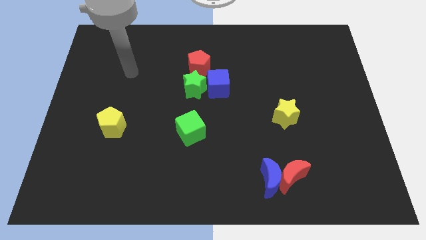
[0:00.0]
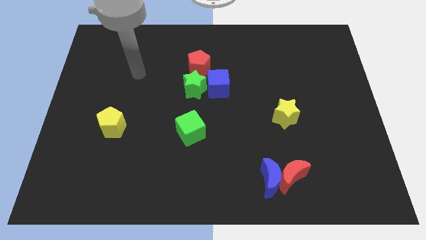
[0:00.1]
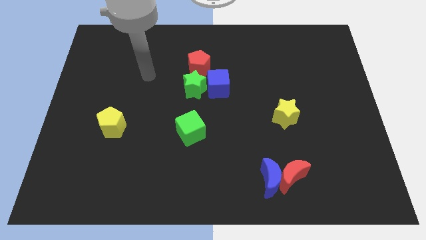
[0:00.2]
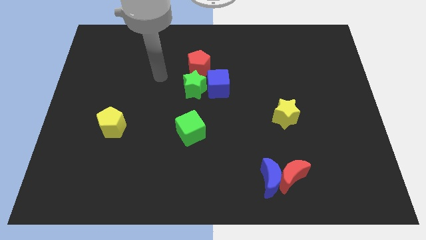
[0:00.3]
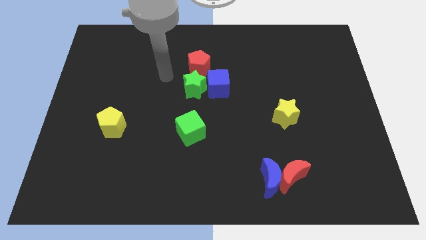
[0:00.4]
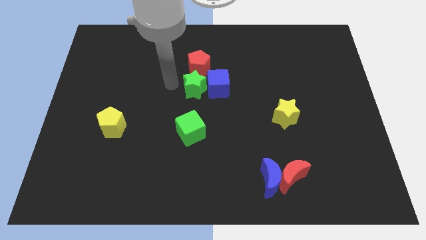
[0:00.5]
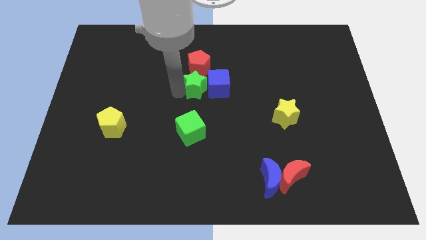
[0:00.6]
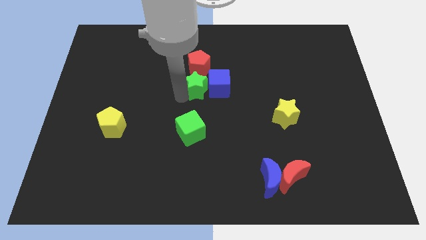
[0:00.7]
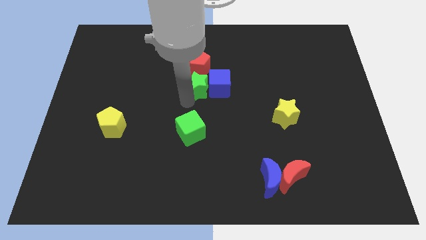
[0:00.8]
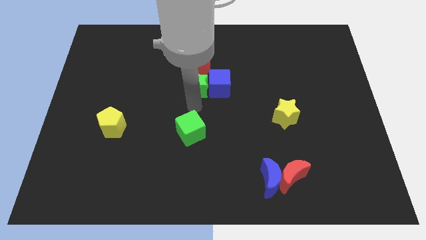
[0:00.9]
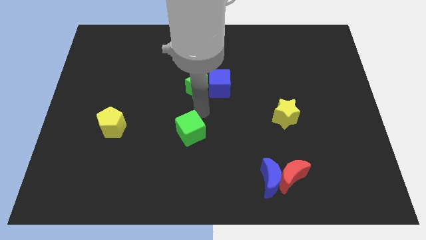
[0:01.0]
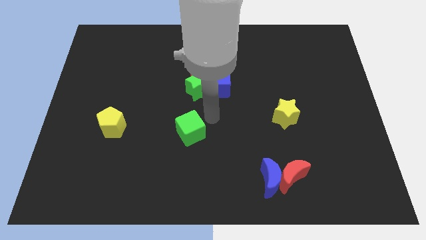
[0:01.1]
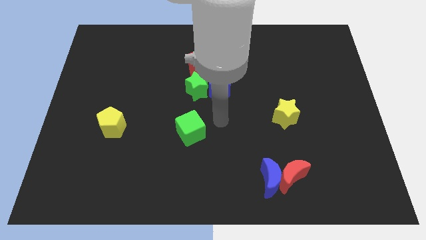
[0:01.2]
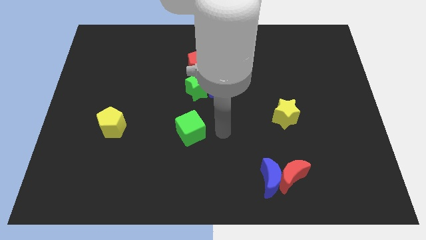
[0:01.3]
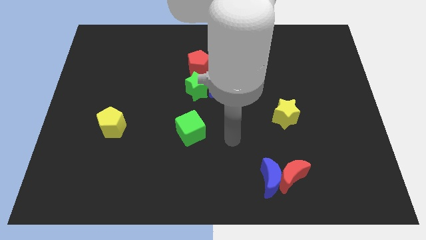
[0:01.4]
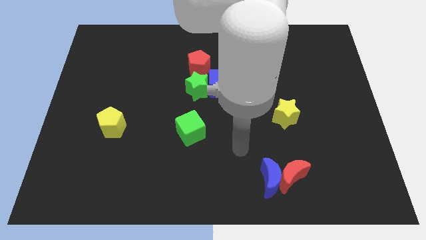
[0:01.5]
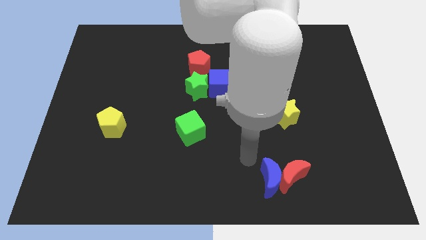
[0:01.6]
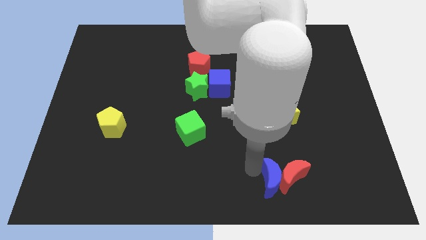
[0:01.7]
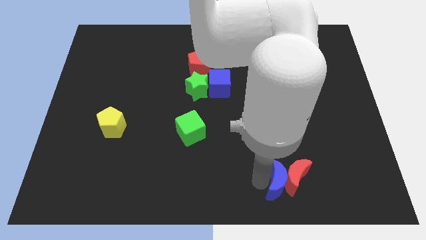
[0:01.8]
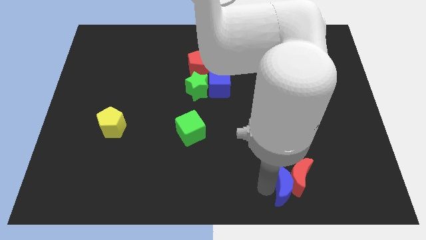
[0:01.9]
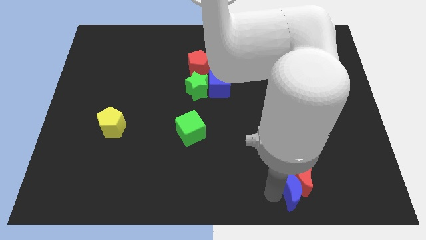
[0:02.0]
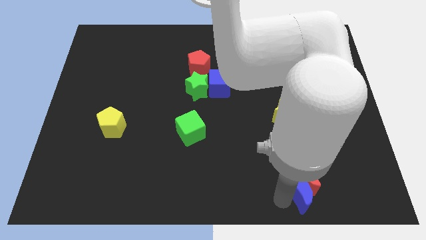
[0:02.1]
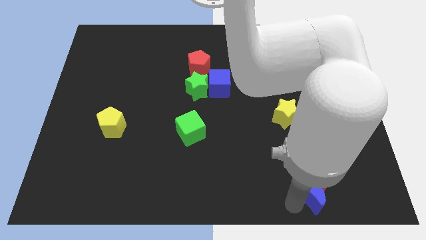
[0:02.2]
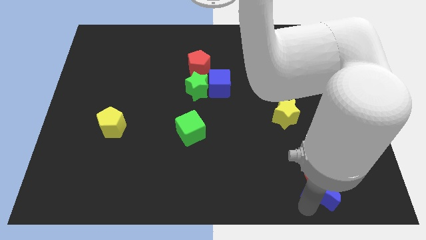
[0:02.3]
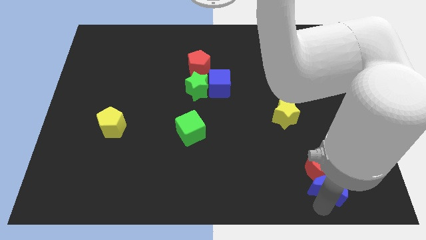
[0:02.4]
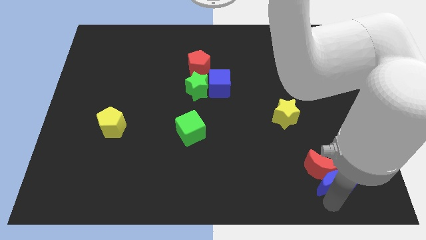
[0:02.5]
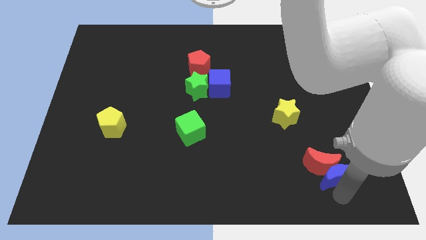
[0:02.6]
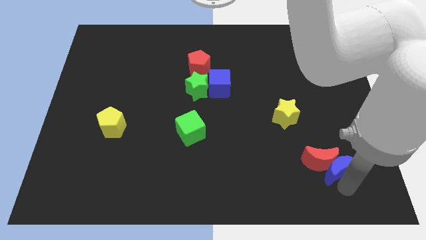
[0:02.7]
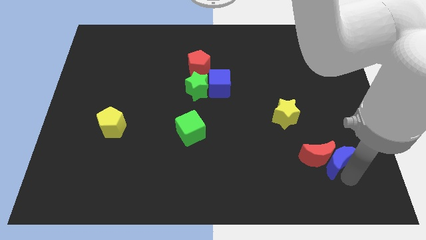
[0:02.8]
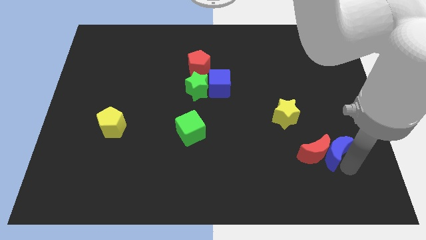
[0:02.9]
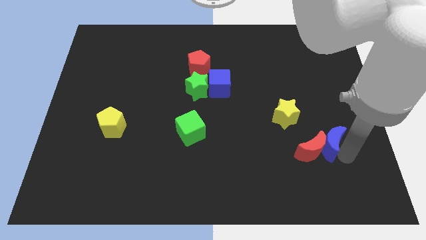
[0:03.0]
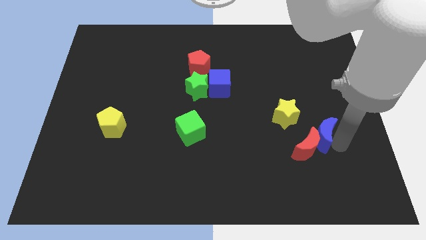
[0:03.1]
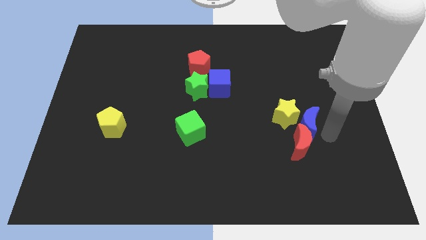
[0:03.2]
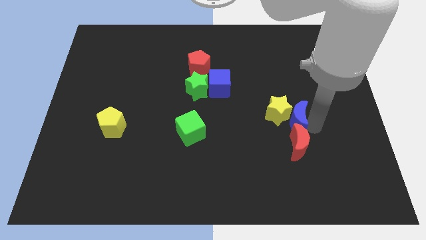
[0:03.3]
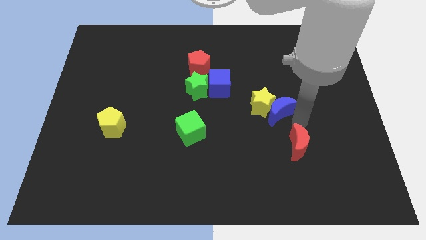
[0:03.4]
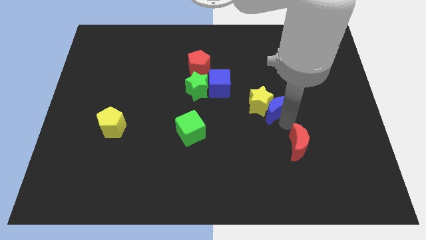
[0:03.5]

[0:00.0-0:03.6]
separate the red moon from the blue moon

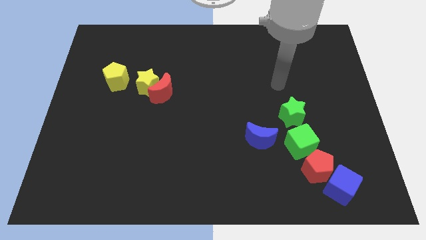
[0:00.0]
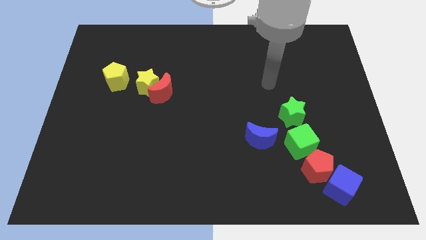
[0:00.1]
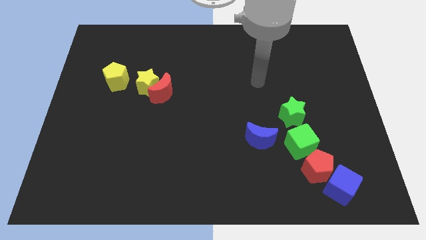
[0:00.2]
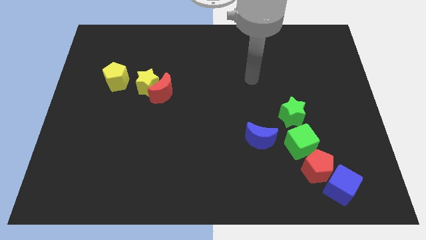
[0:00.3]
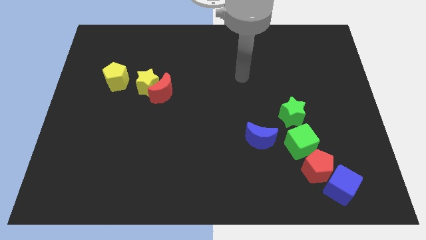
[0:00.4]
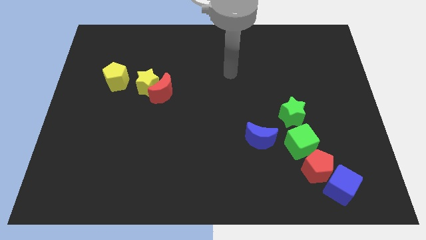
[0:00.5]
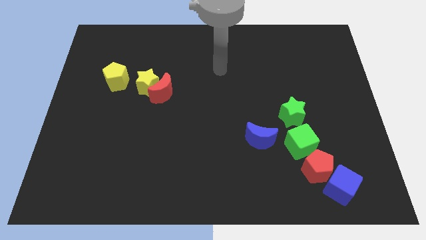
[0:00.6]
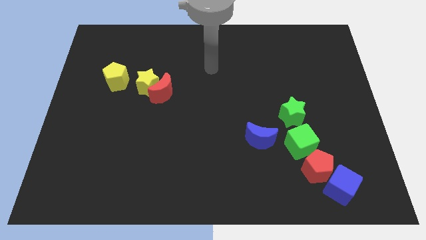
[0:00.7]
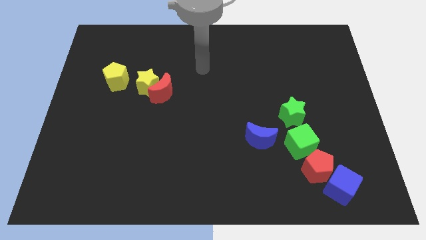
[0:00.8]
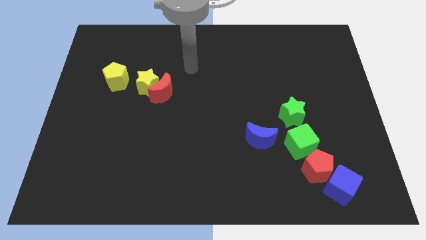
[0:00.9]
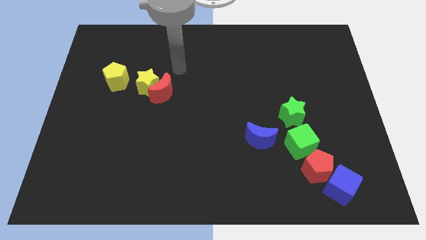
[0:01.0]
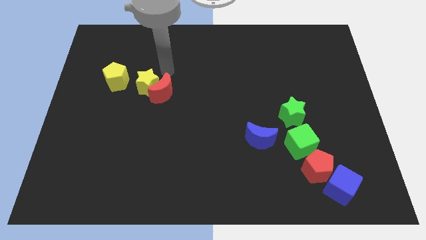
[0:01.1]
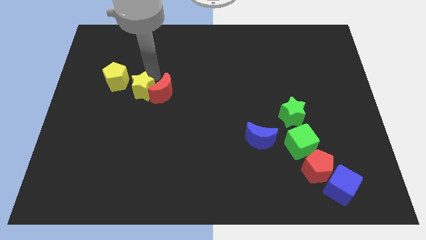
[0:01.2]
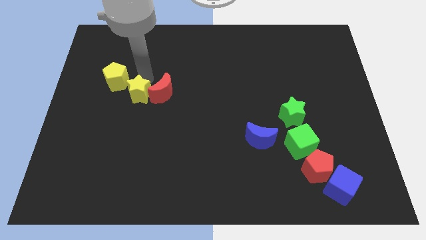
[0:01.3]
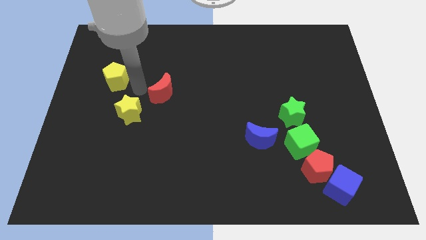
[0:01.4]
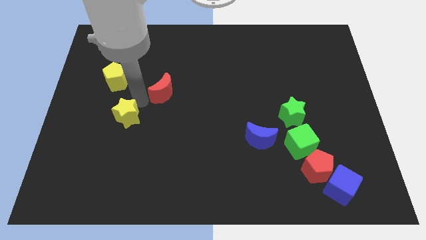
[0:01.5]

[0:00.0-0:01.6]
separate the red moon from the yellow star

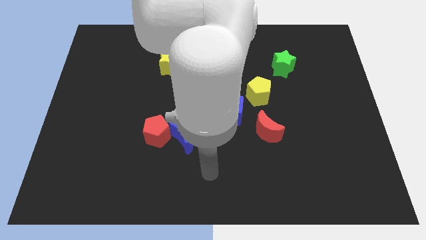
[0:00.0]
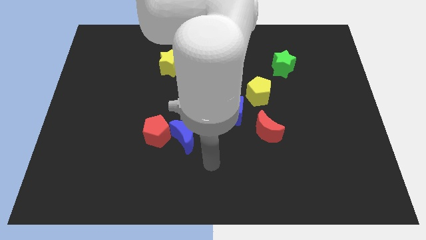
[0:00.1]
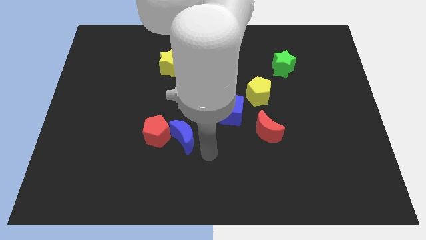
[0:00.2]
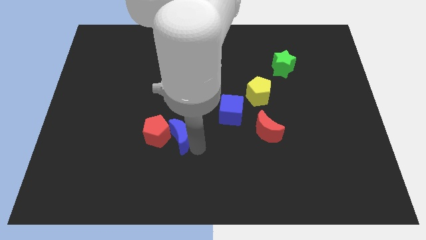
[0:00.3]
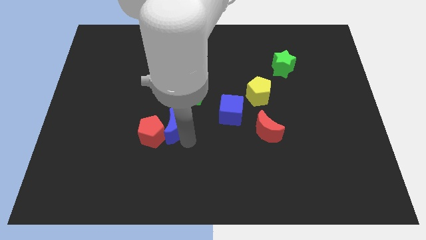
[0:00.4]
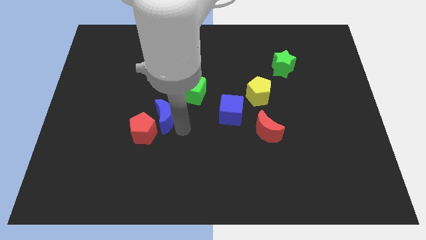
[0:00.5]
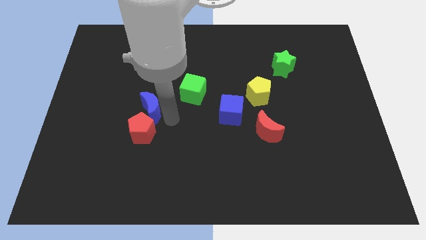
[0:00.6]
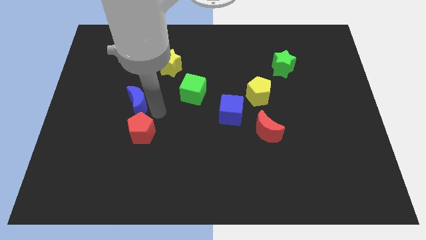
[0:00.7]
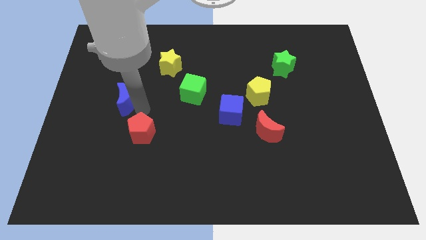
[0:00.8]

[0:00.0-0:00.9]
separate the red pentagon from the blue moon

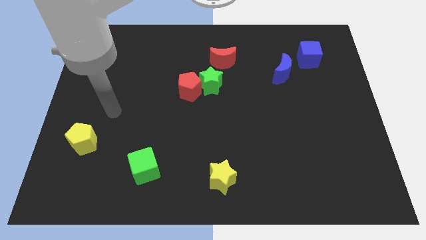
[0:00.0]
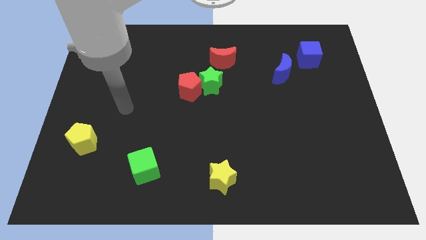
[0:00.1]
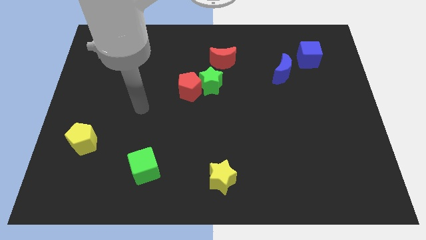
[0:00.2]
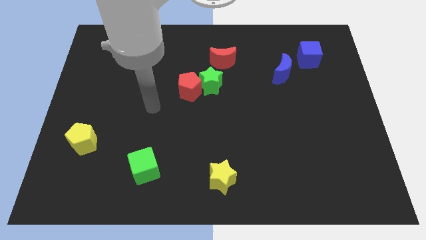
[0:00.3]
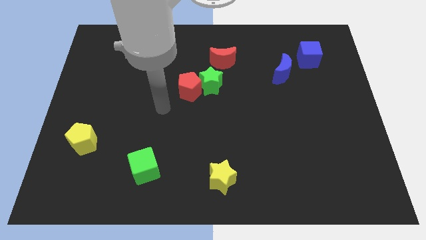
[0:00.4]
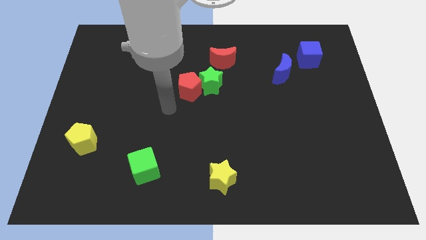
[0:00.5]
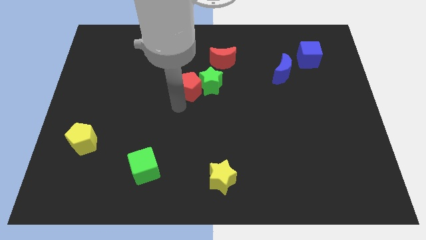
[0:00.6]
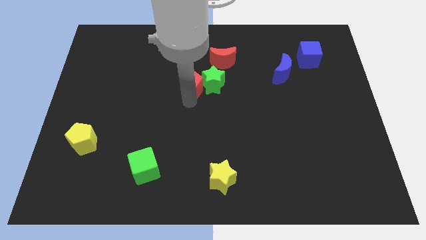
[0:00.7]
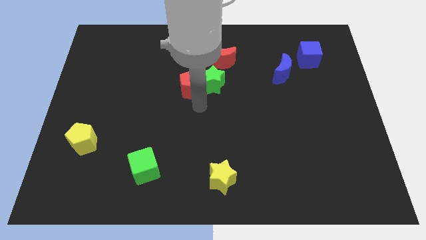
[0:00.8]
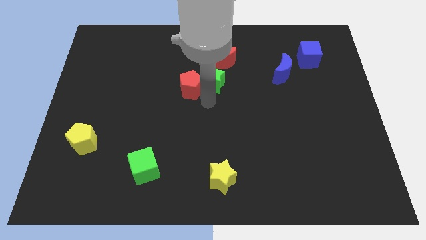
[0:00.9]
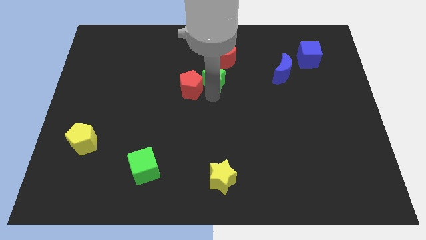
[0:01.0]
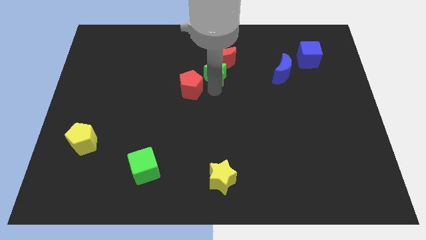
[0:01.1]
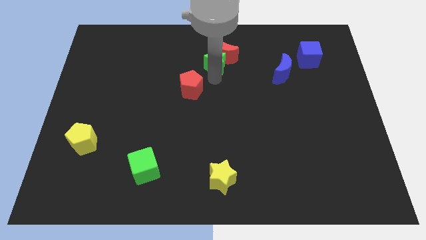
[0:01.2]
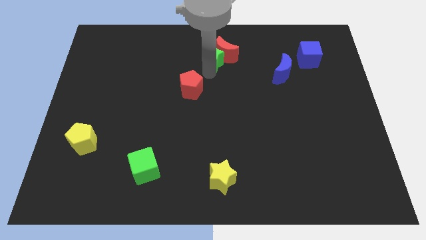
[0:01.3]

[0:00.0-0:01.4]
pull the red pentagon apart from the green star

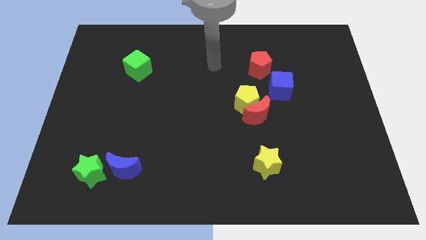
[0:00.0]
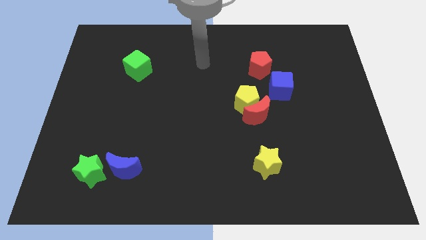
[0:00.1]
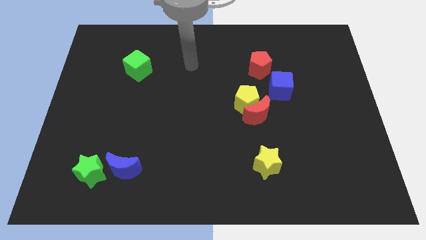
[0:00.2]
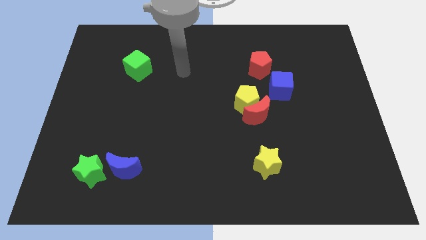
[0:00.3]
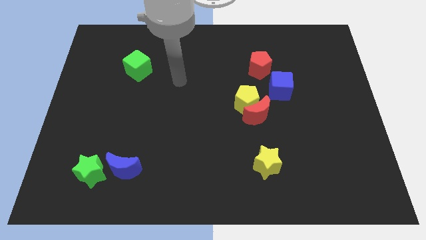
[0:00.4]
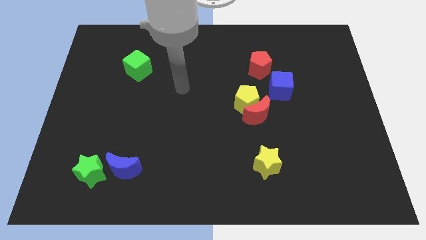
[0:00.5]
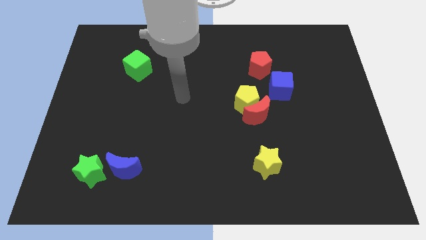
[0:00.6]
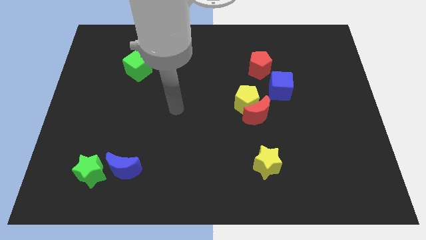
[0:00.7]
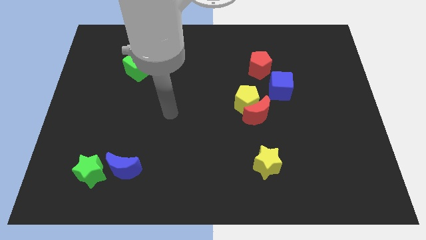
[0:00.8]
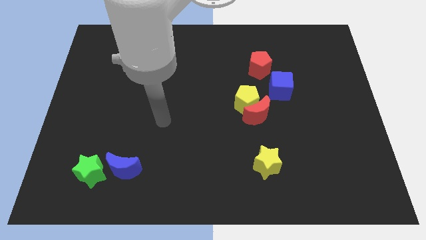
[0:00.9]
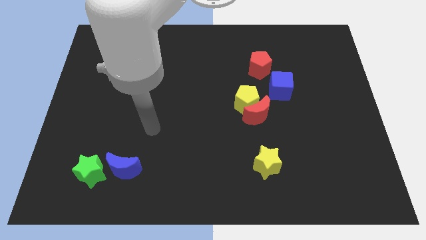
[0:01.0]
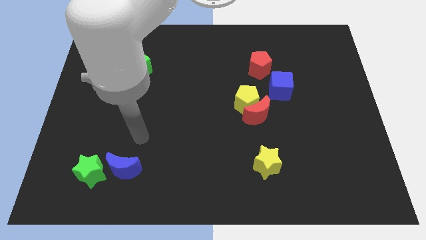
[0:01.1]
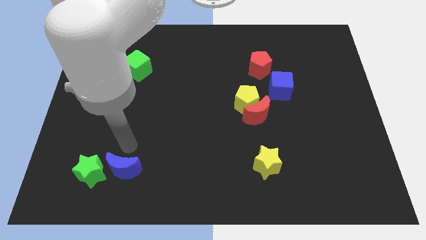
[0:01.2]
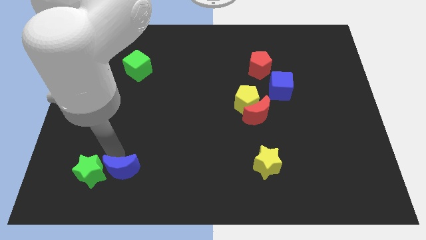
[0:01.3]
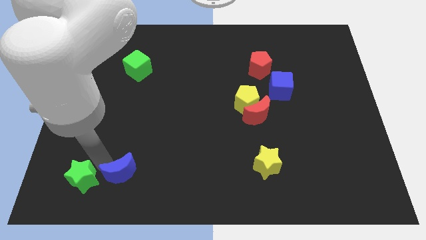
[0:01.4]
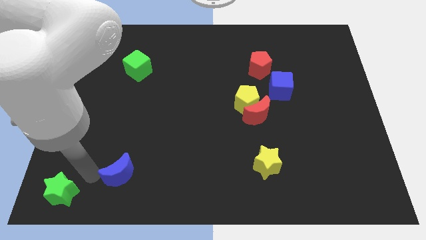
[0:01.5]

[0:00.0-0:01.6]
move the blue moon away from the green star

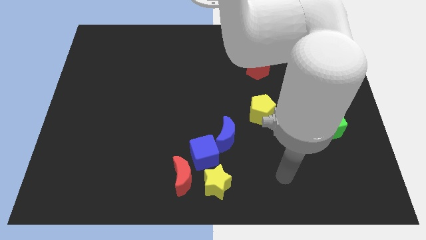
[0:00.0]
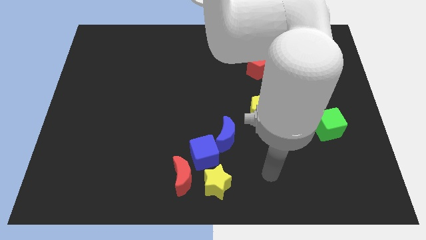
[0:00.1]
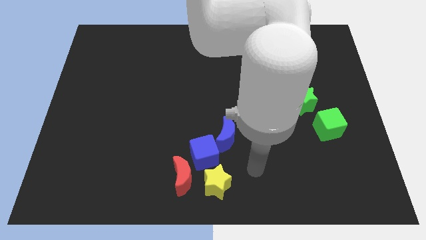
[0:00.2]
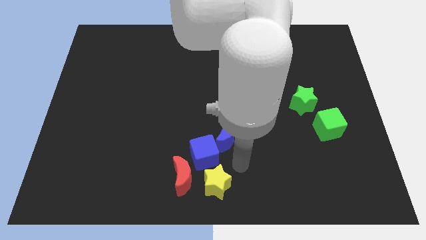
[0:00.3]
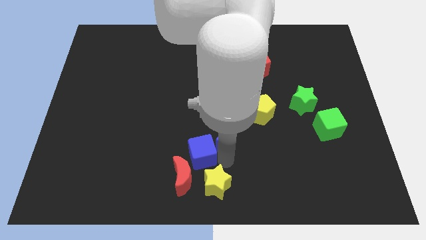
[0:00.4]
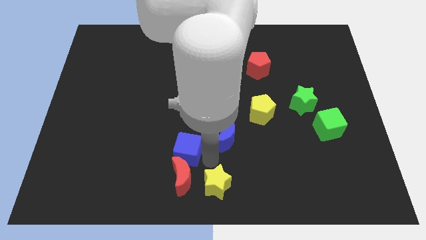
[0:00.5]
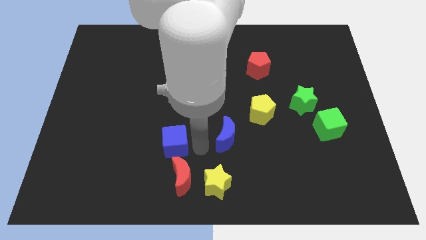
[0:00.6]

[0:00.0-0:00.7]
move the blue moon away from the blue cube
